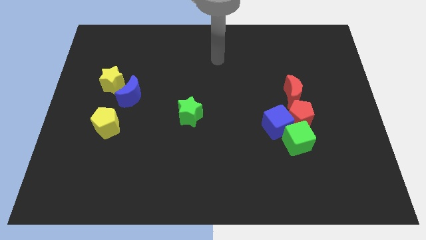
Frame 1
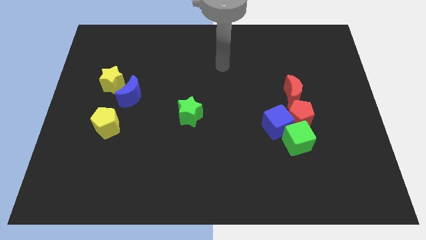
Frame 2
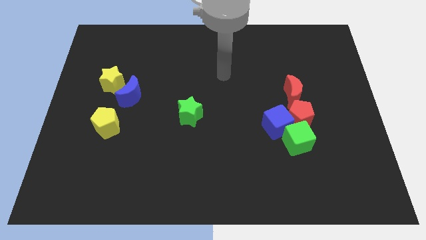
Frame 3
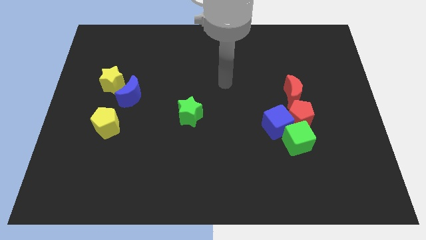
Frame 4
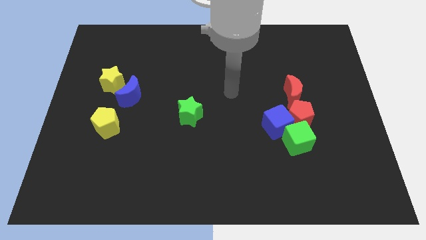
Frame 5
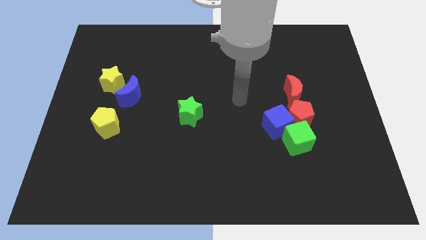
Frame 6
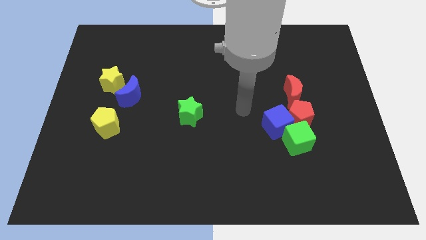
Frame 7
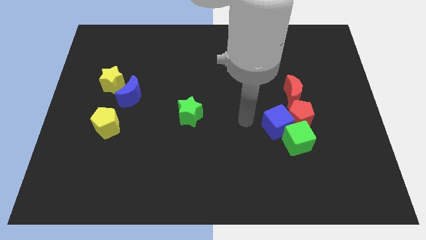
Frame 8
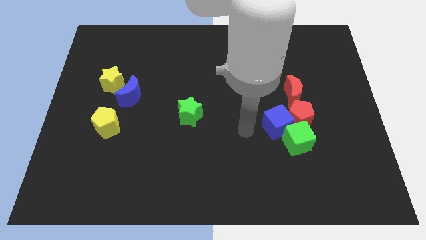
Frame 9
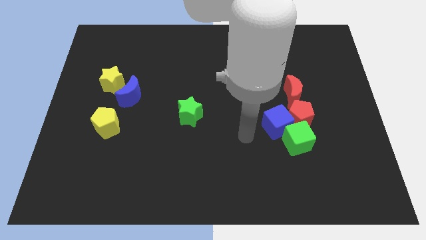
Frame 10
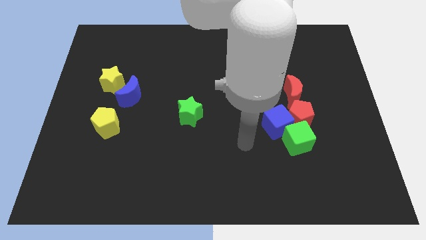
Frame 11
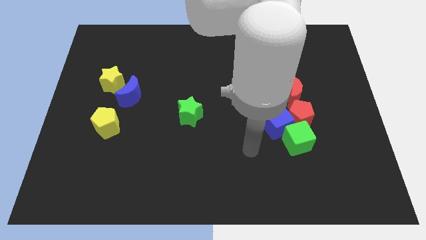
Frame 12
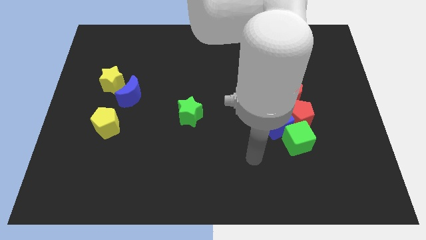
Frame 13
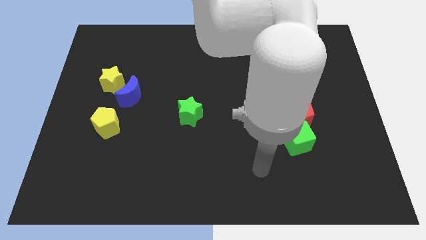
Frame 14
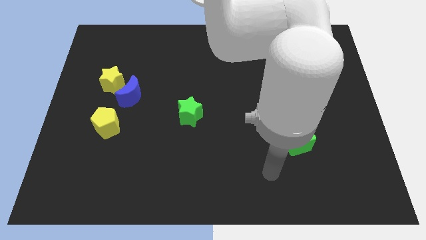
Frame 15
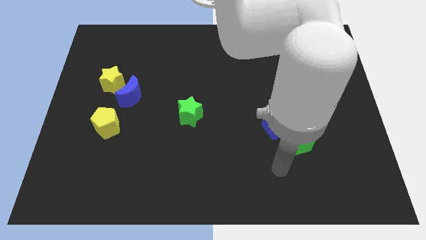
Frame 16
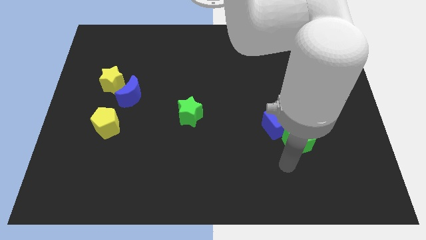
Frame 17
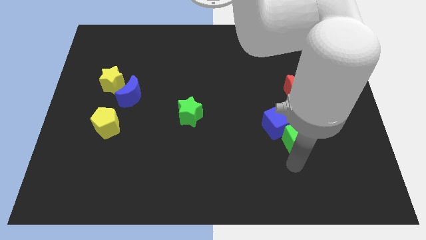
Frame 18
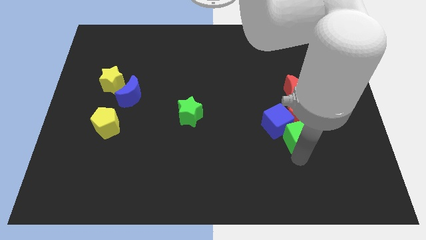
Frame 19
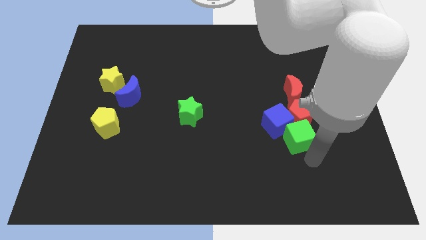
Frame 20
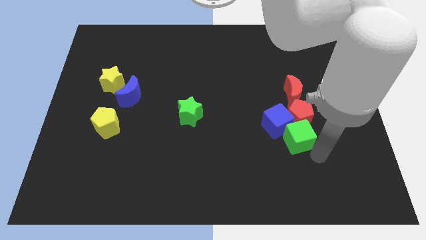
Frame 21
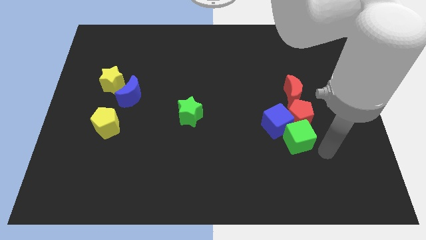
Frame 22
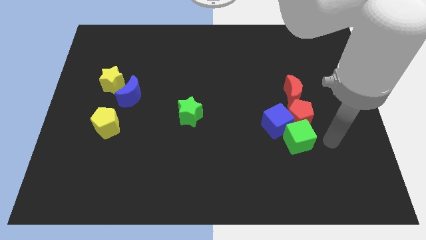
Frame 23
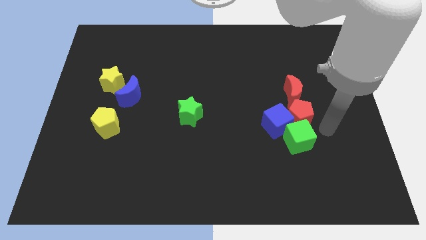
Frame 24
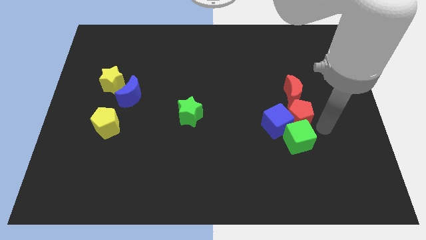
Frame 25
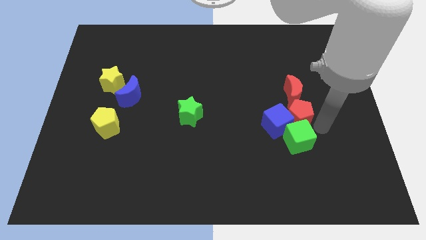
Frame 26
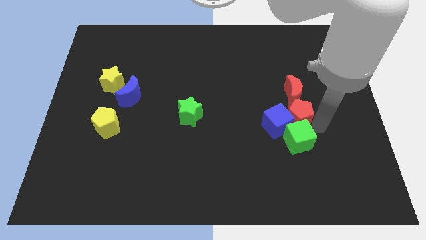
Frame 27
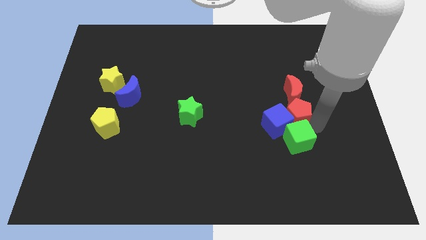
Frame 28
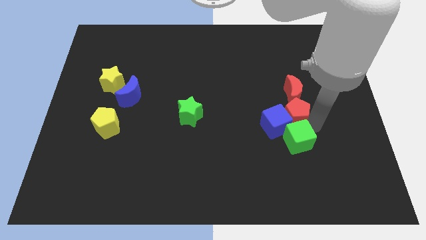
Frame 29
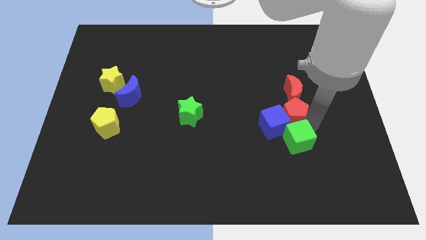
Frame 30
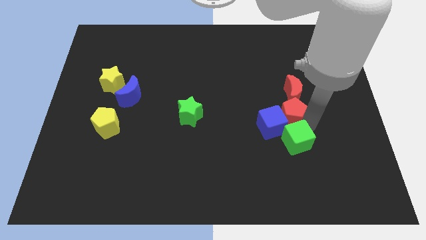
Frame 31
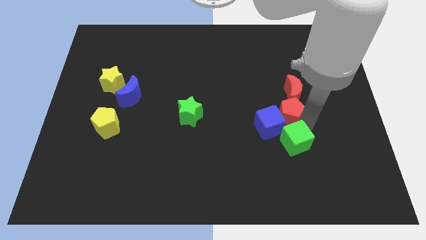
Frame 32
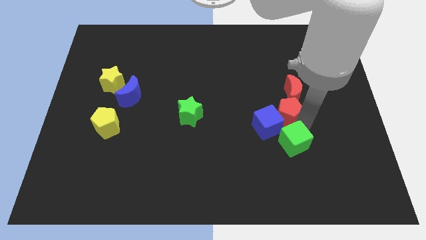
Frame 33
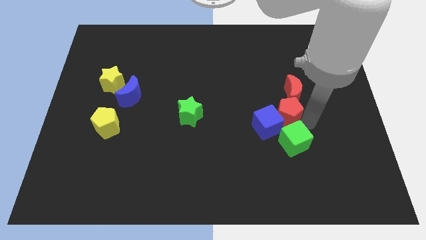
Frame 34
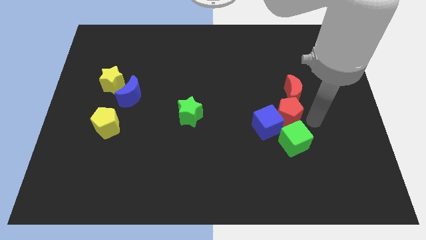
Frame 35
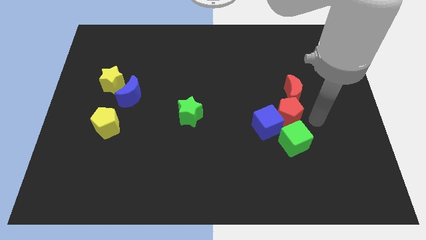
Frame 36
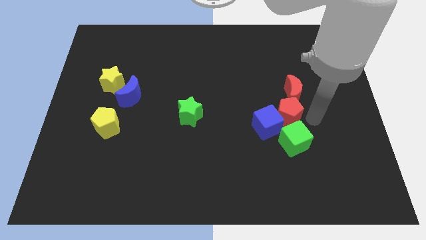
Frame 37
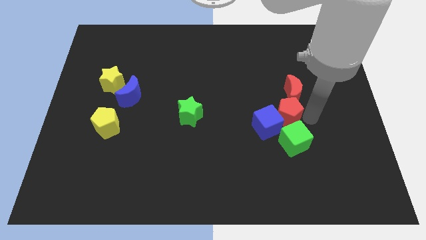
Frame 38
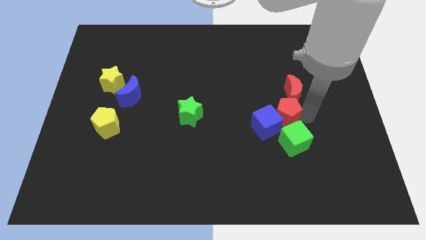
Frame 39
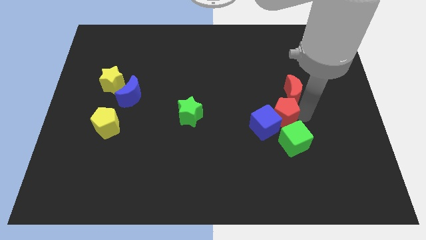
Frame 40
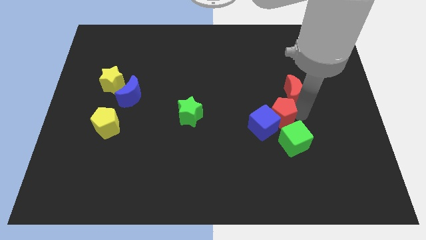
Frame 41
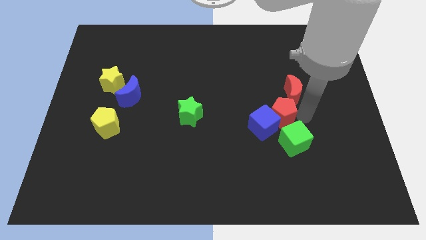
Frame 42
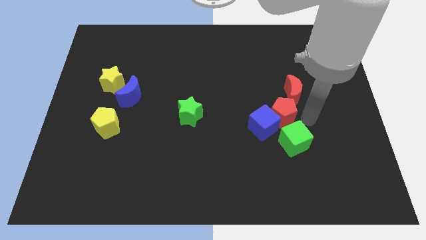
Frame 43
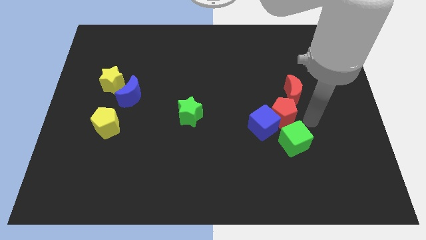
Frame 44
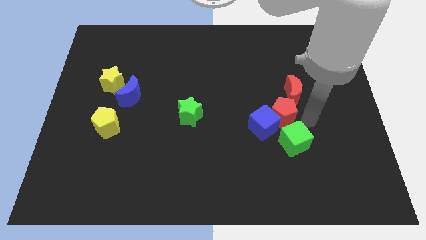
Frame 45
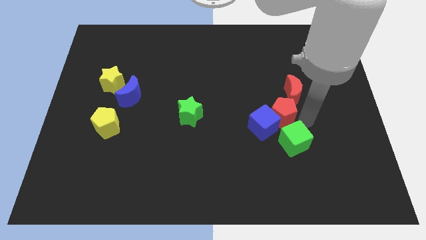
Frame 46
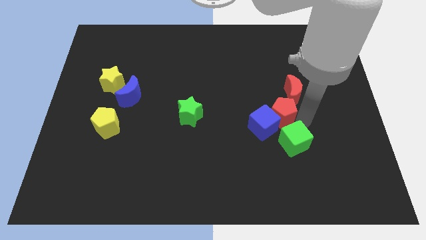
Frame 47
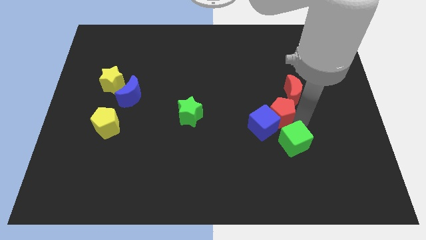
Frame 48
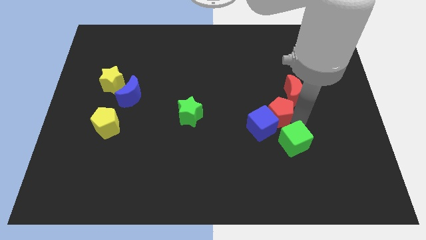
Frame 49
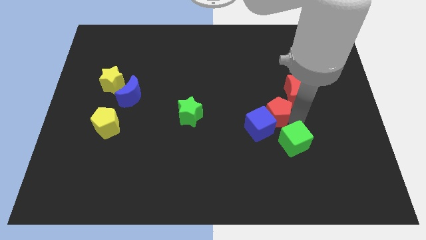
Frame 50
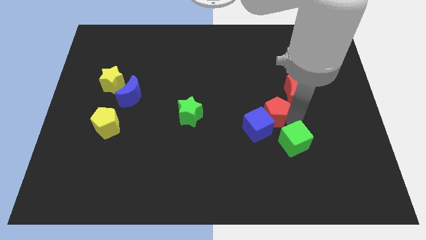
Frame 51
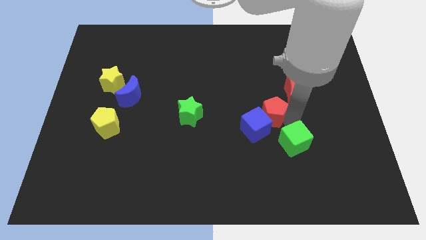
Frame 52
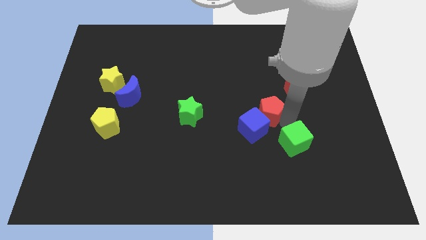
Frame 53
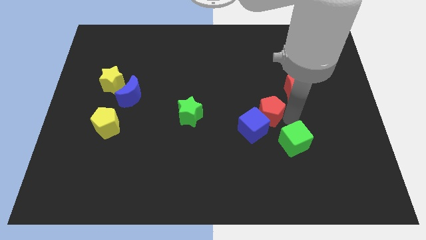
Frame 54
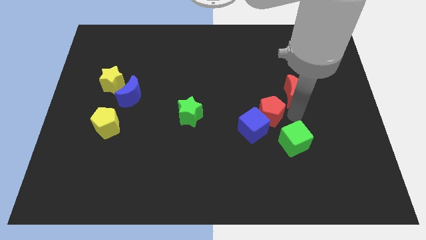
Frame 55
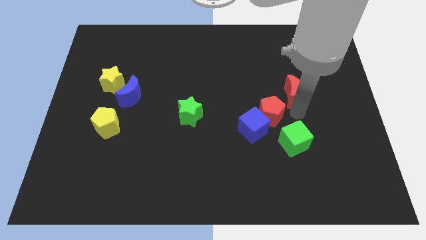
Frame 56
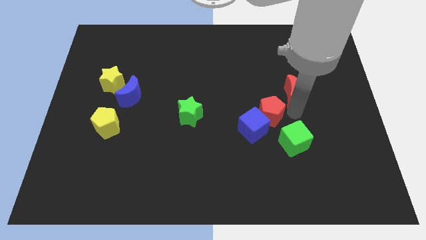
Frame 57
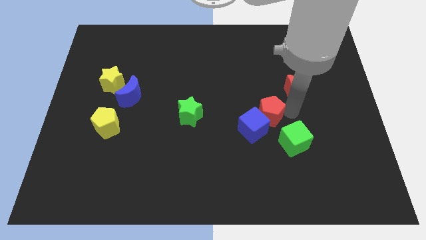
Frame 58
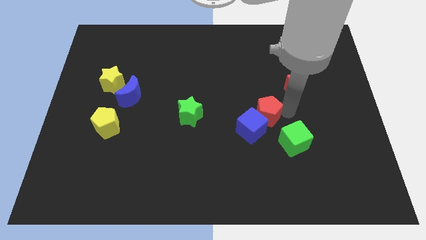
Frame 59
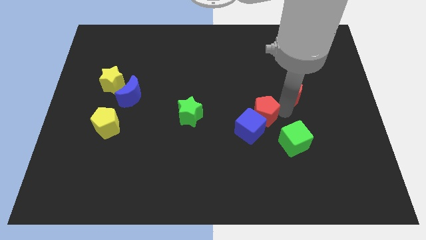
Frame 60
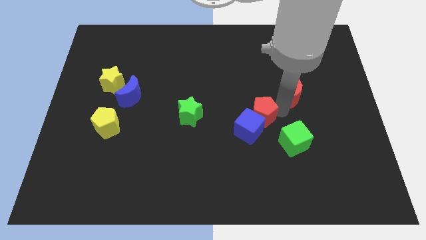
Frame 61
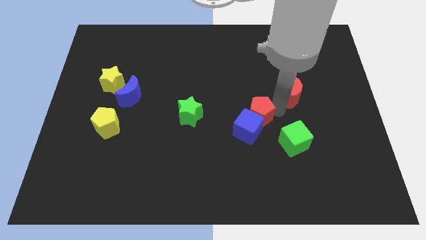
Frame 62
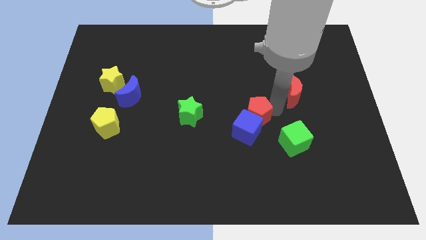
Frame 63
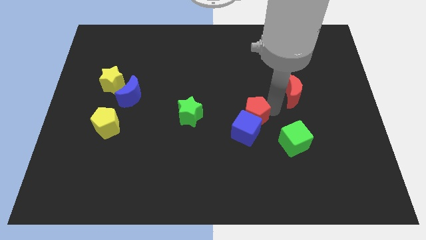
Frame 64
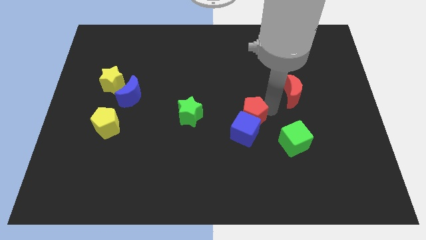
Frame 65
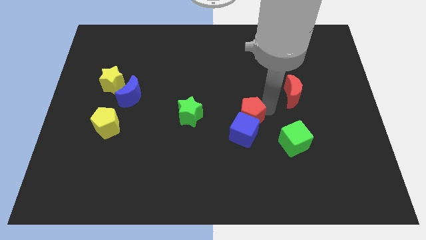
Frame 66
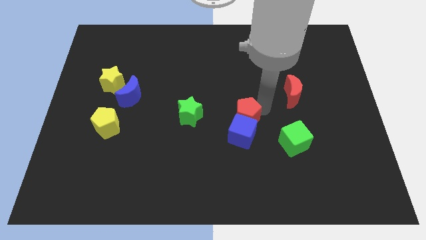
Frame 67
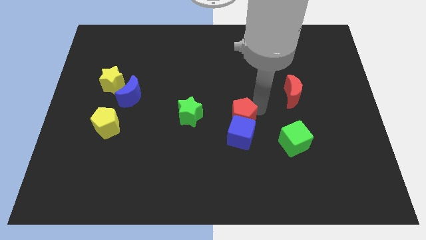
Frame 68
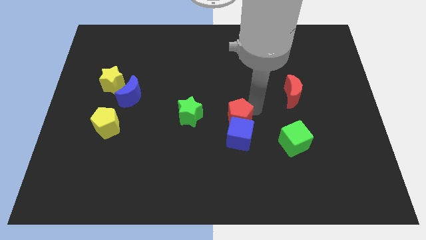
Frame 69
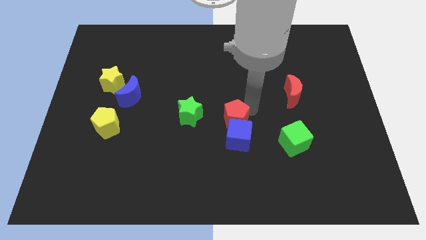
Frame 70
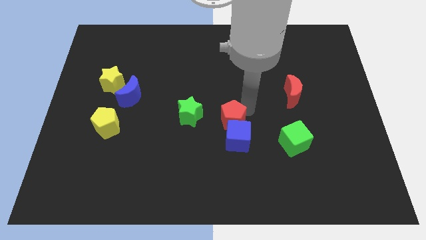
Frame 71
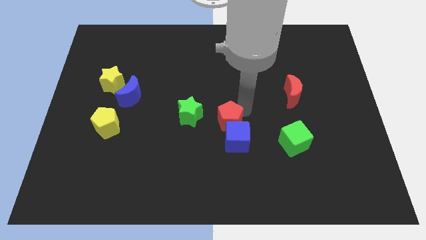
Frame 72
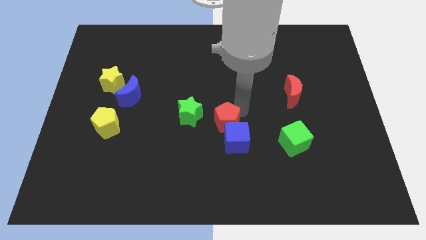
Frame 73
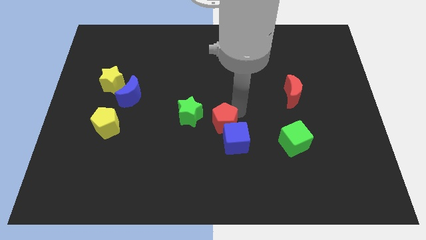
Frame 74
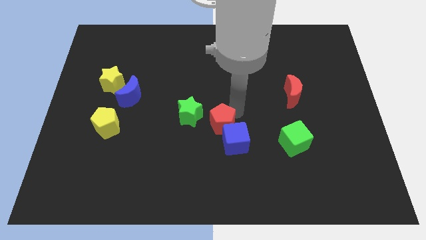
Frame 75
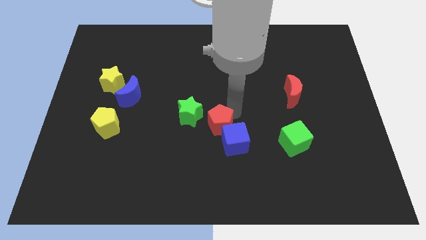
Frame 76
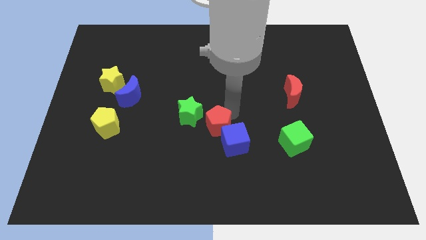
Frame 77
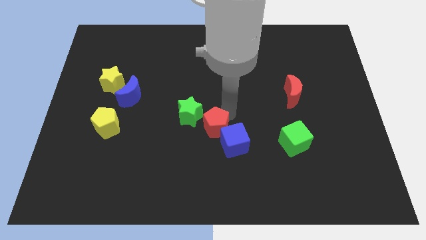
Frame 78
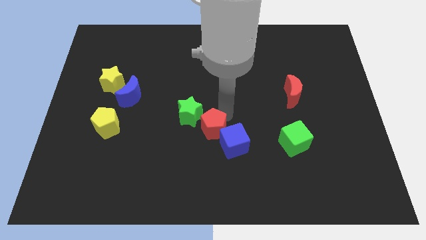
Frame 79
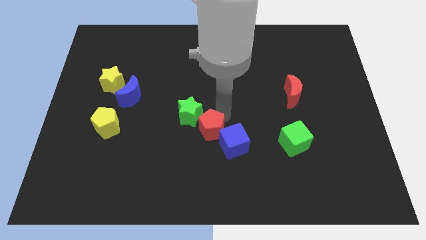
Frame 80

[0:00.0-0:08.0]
push the red pentagon left

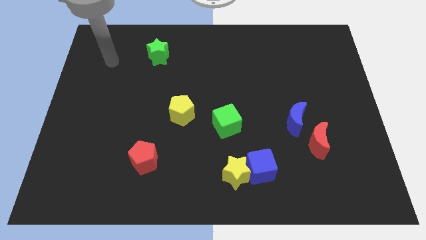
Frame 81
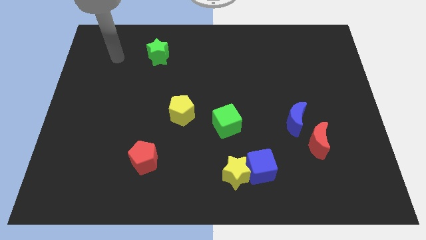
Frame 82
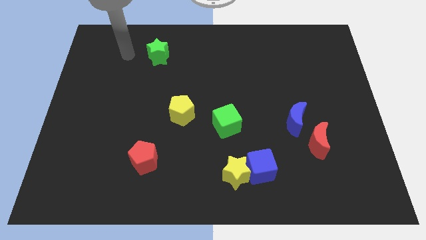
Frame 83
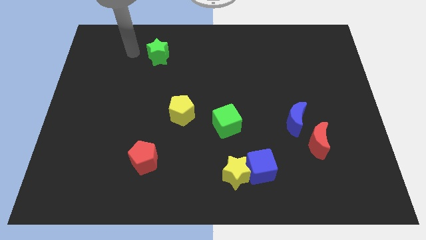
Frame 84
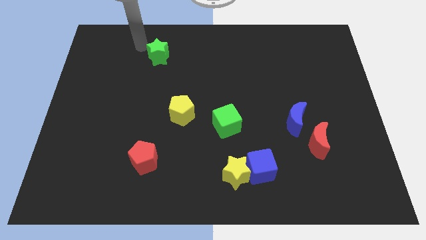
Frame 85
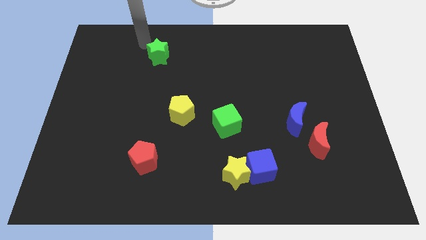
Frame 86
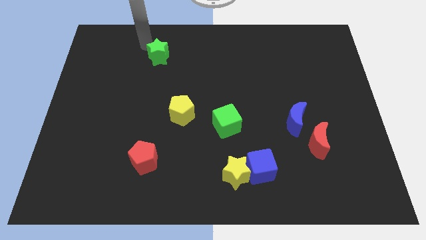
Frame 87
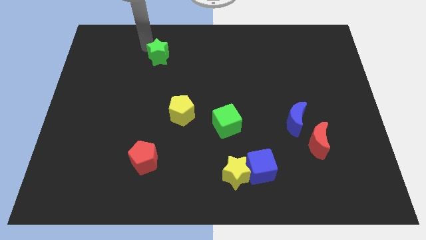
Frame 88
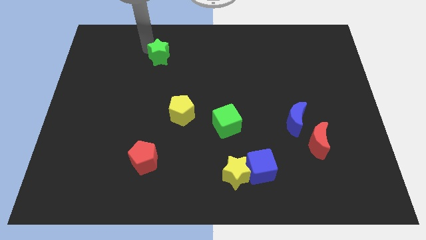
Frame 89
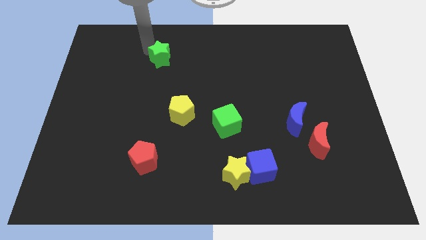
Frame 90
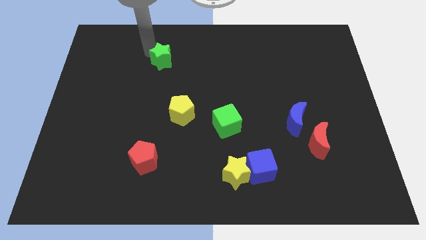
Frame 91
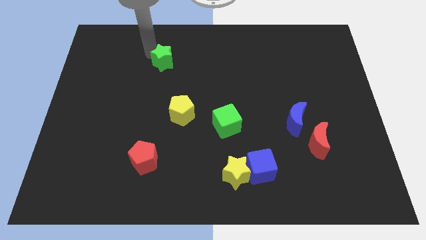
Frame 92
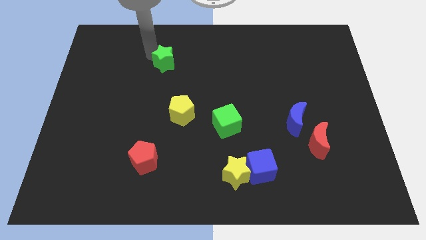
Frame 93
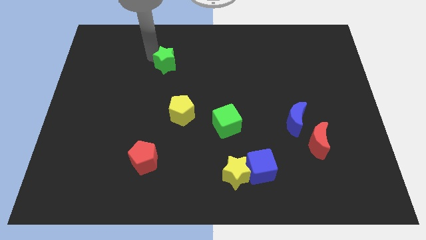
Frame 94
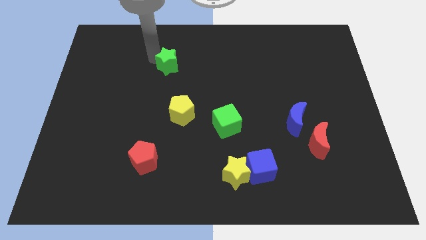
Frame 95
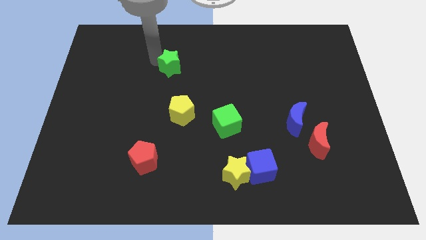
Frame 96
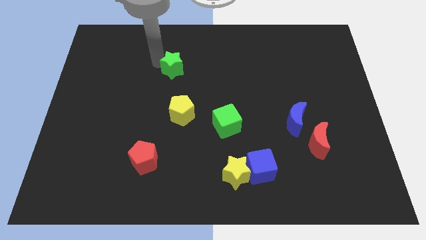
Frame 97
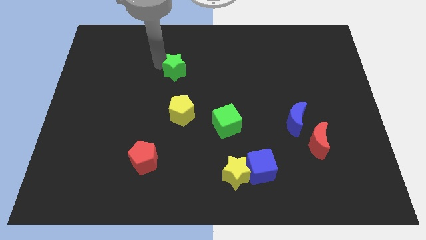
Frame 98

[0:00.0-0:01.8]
push the green star a little downwards and to the right
